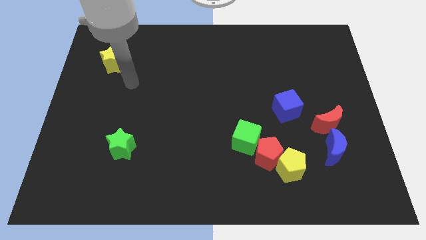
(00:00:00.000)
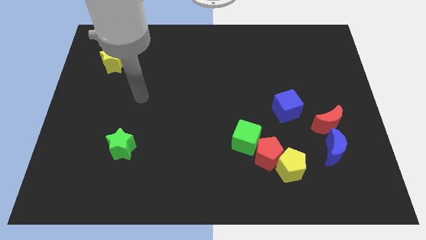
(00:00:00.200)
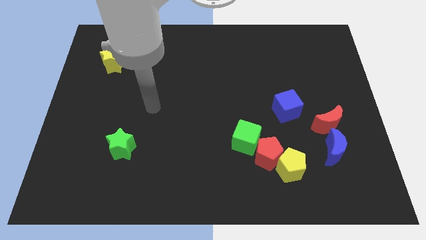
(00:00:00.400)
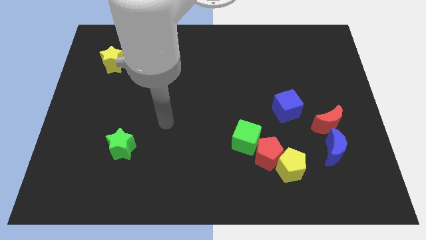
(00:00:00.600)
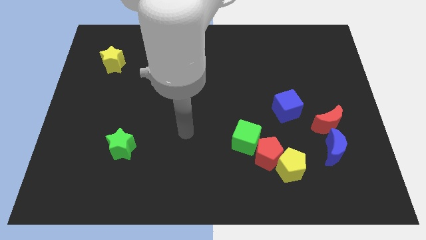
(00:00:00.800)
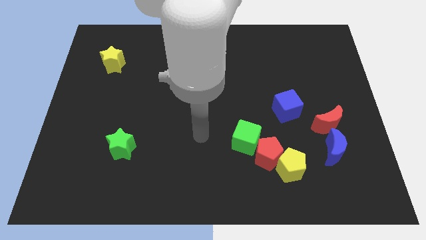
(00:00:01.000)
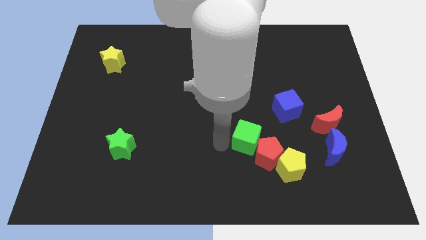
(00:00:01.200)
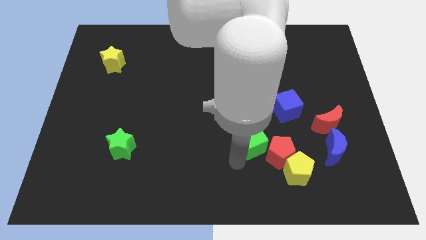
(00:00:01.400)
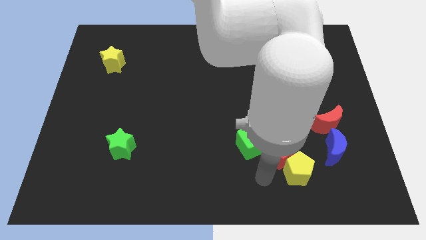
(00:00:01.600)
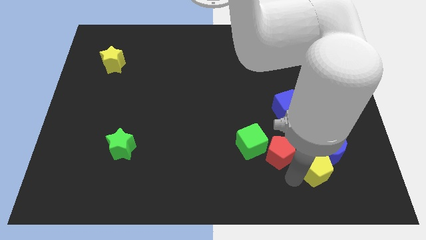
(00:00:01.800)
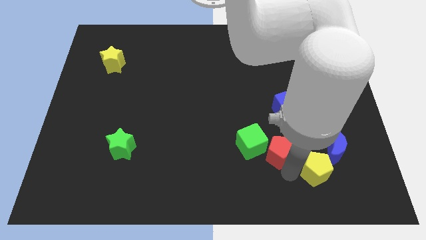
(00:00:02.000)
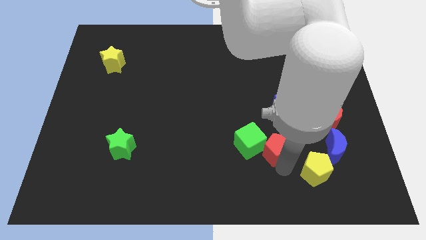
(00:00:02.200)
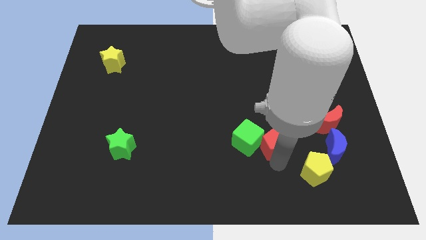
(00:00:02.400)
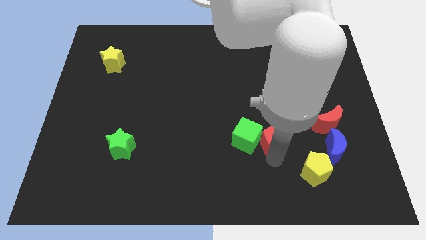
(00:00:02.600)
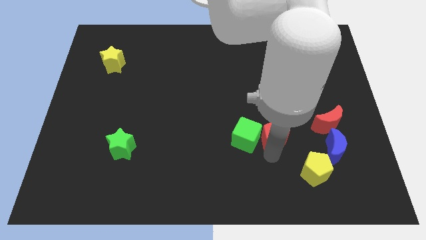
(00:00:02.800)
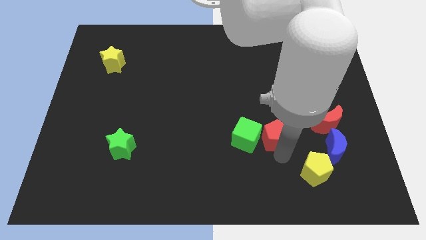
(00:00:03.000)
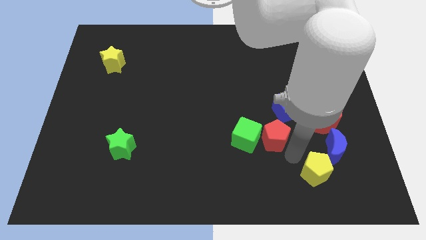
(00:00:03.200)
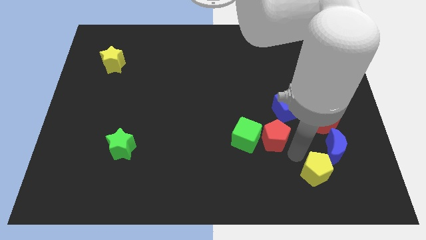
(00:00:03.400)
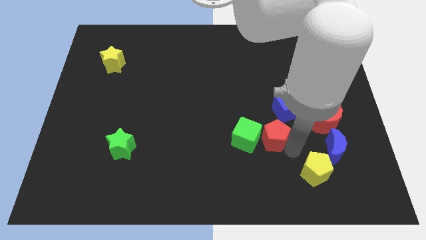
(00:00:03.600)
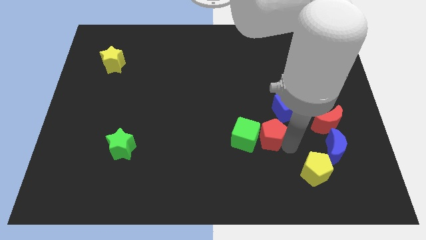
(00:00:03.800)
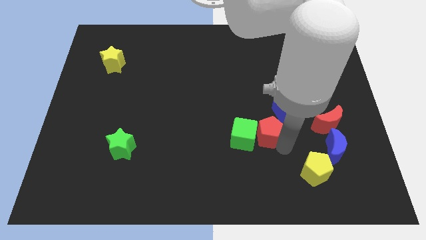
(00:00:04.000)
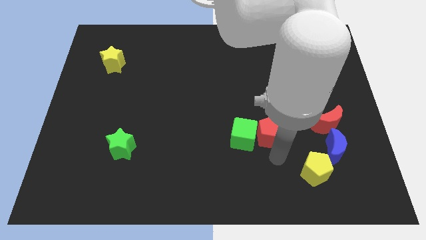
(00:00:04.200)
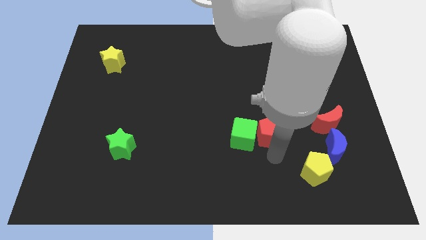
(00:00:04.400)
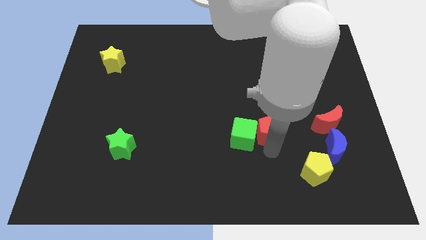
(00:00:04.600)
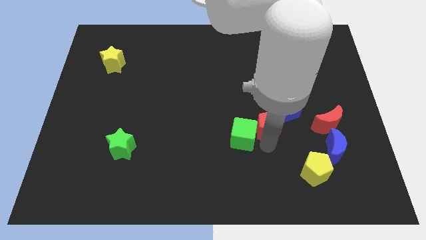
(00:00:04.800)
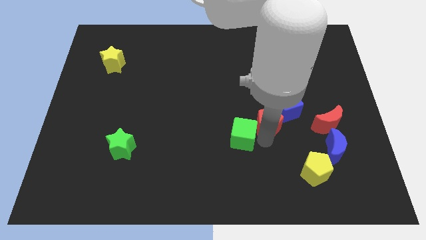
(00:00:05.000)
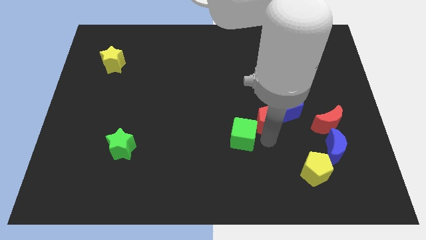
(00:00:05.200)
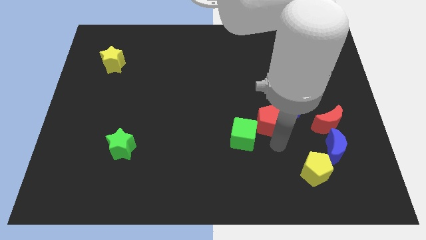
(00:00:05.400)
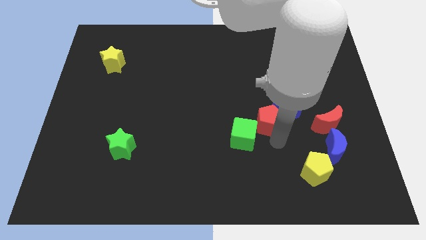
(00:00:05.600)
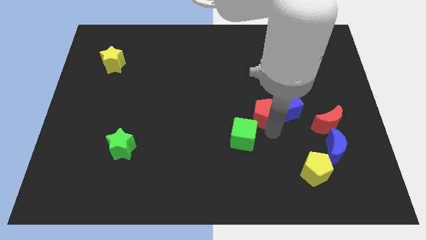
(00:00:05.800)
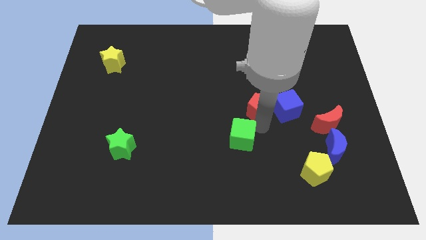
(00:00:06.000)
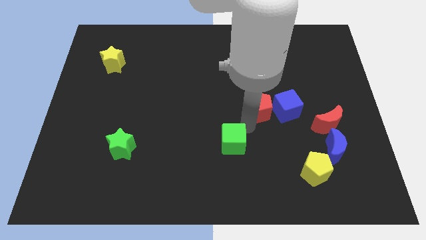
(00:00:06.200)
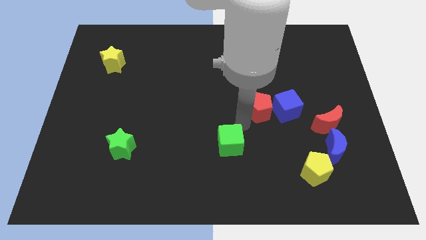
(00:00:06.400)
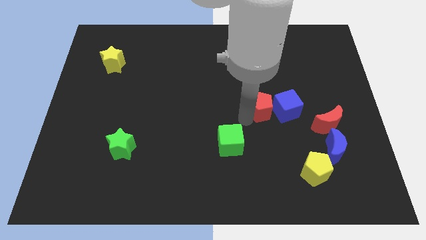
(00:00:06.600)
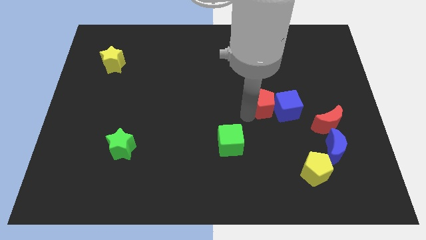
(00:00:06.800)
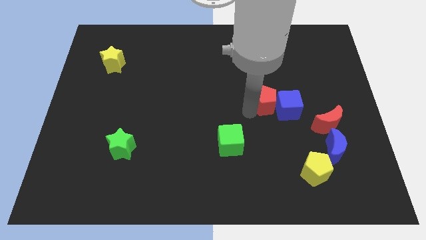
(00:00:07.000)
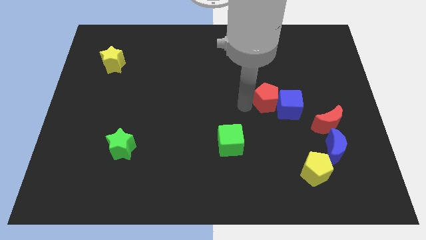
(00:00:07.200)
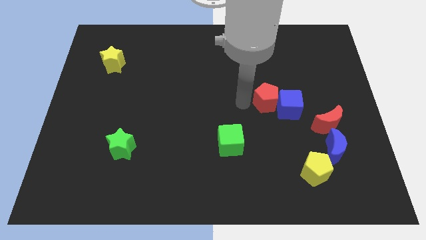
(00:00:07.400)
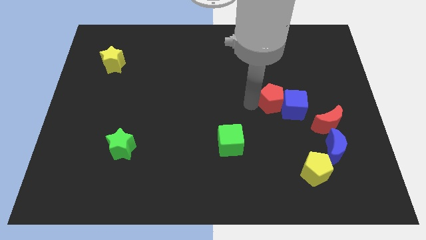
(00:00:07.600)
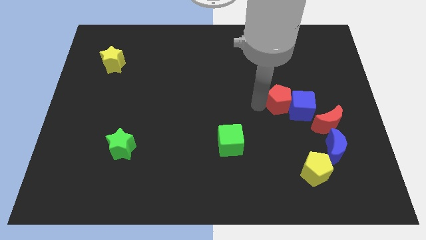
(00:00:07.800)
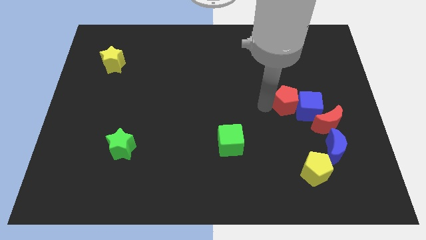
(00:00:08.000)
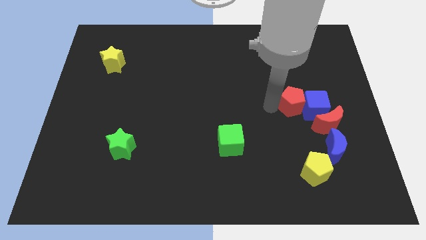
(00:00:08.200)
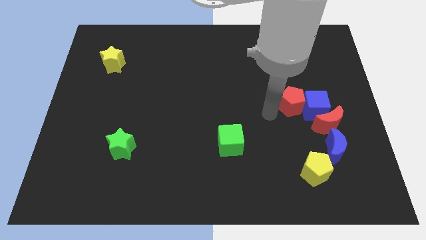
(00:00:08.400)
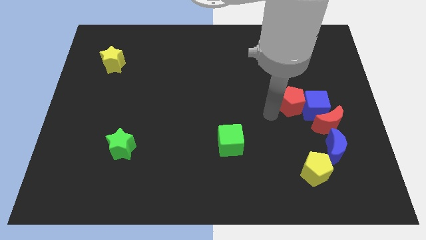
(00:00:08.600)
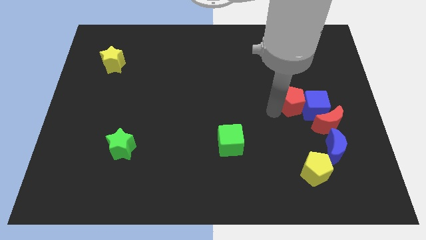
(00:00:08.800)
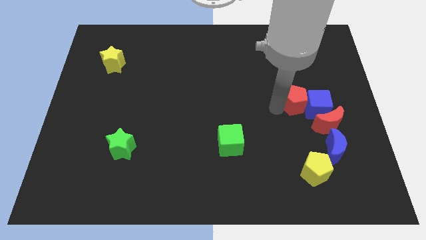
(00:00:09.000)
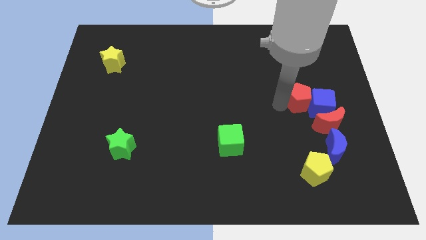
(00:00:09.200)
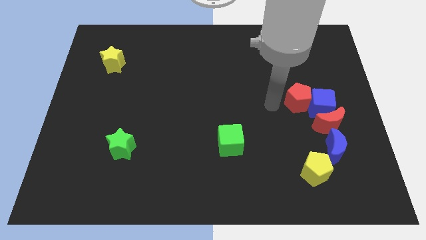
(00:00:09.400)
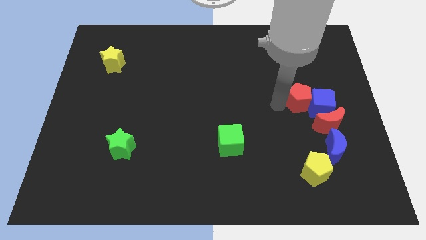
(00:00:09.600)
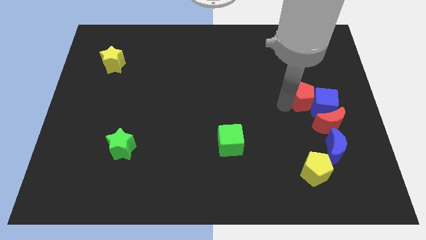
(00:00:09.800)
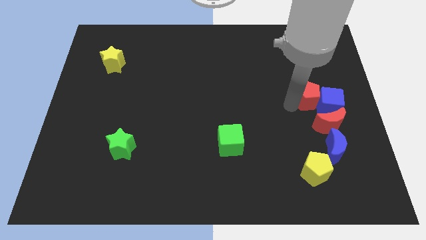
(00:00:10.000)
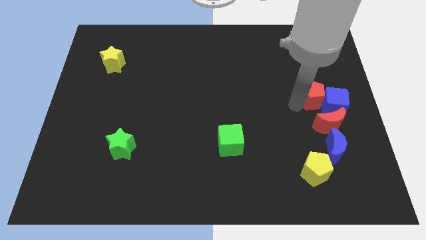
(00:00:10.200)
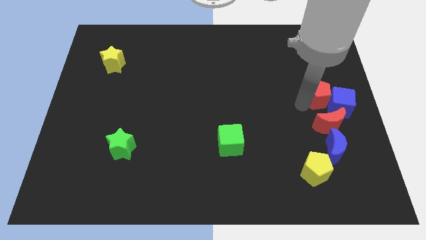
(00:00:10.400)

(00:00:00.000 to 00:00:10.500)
move the red pentagon to the center right

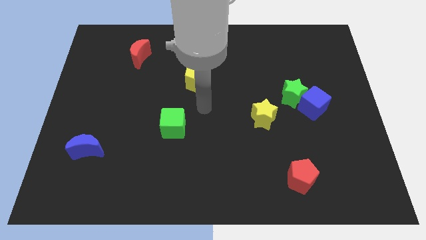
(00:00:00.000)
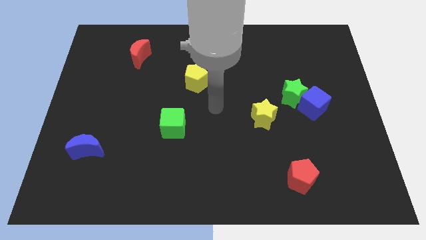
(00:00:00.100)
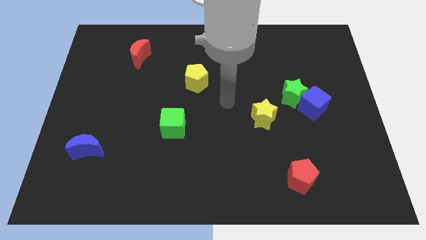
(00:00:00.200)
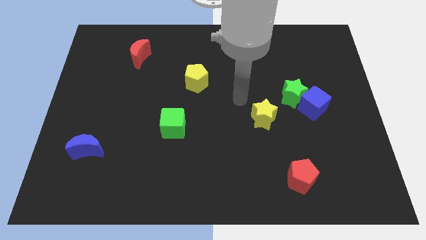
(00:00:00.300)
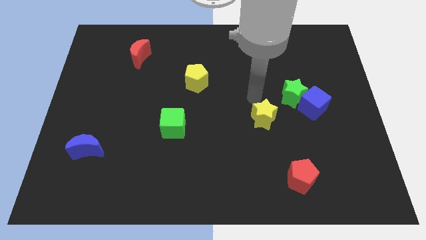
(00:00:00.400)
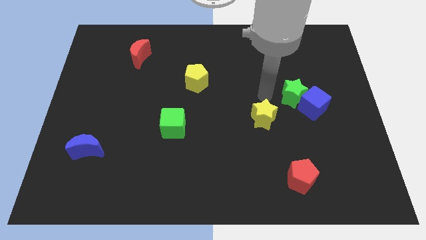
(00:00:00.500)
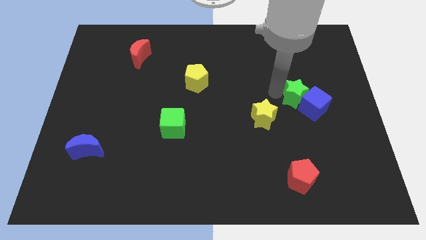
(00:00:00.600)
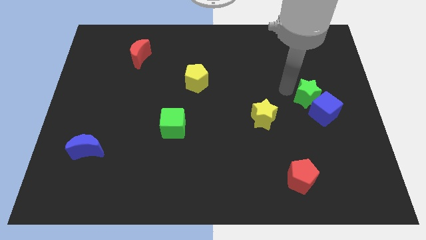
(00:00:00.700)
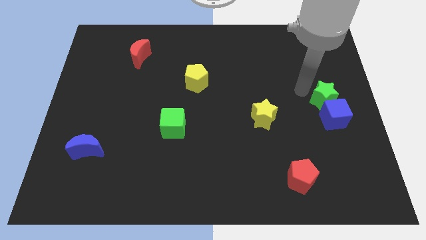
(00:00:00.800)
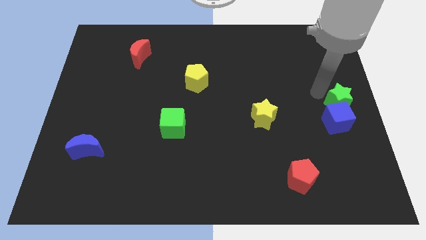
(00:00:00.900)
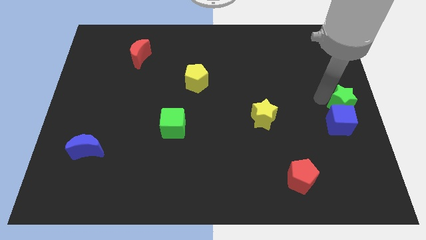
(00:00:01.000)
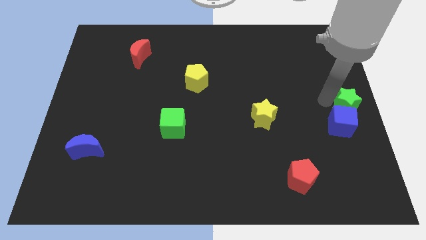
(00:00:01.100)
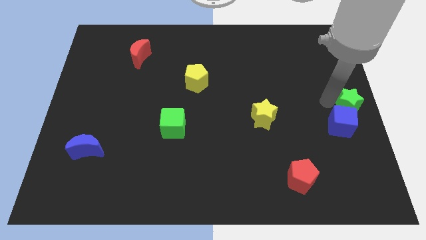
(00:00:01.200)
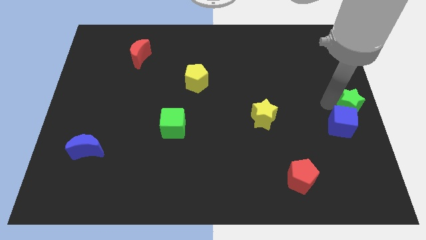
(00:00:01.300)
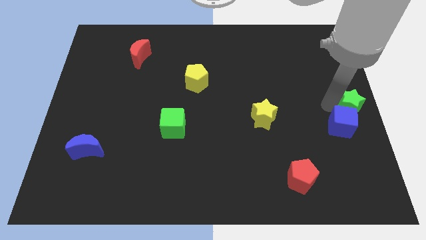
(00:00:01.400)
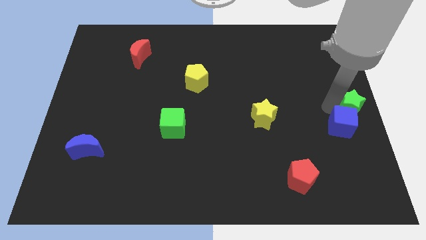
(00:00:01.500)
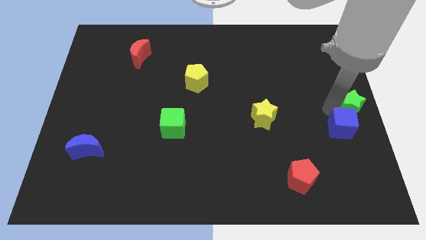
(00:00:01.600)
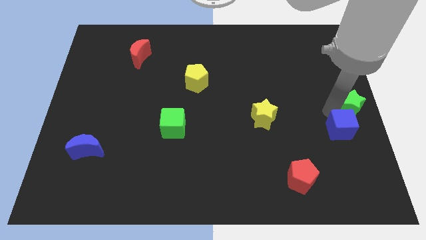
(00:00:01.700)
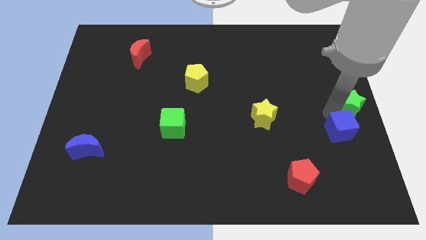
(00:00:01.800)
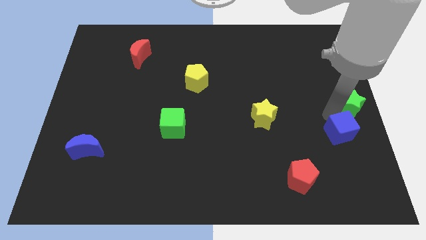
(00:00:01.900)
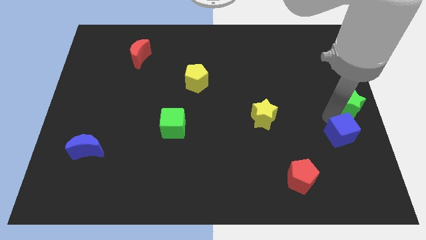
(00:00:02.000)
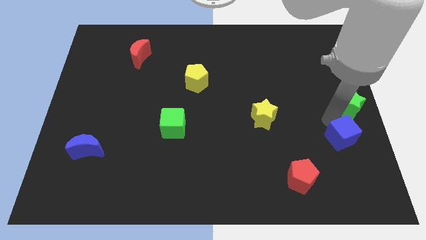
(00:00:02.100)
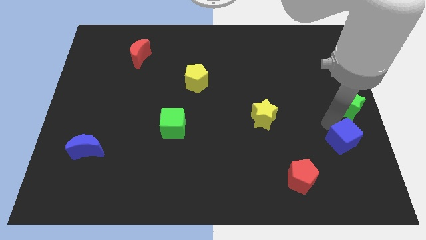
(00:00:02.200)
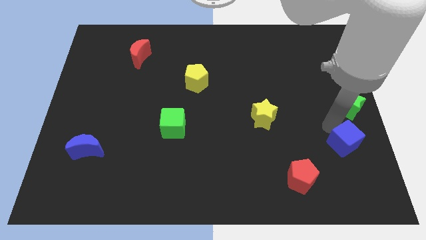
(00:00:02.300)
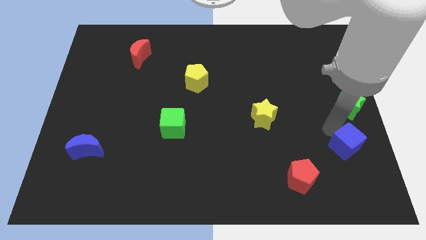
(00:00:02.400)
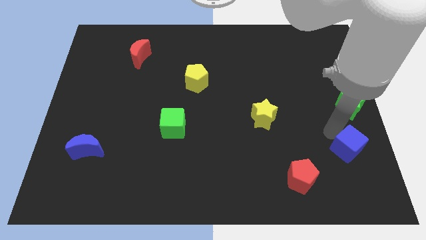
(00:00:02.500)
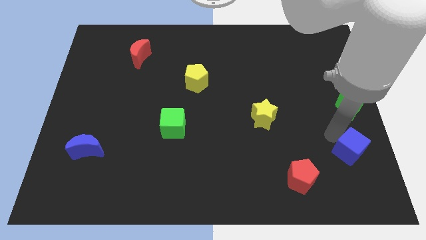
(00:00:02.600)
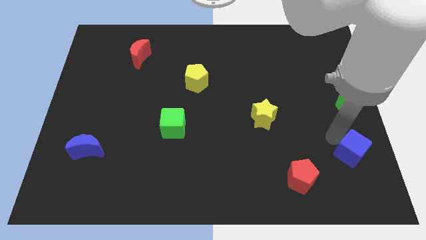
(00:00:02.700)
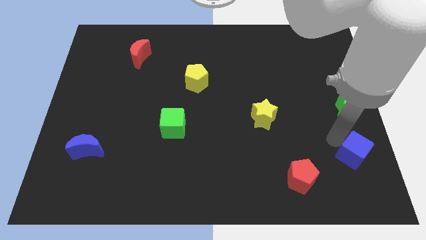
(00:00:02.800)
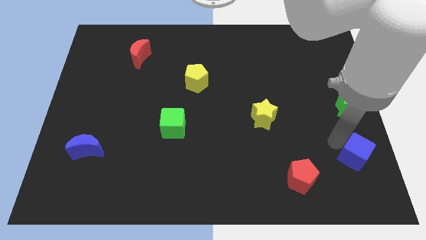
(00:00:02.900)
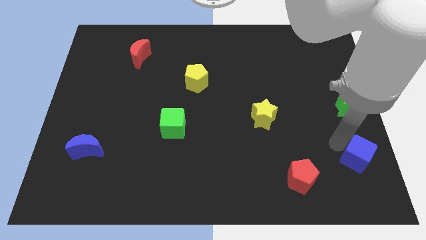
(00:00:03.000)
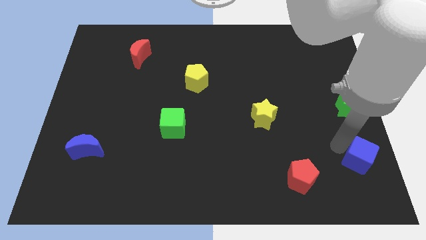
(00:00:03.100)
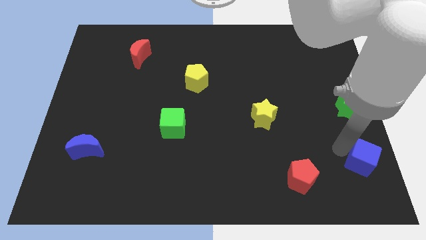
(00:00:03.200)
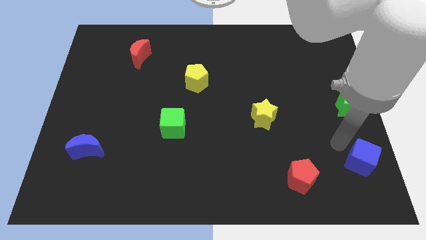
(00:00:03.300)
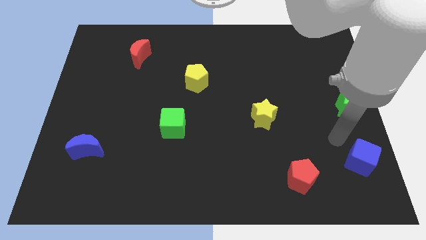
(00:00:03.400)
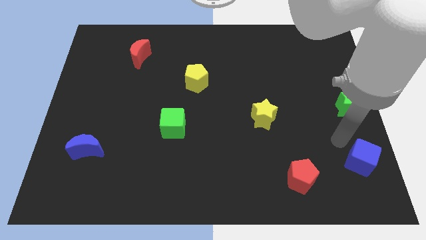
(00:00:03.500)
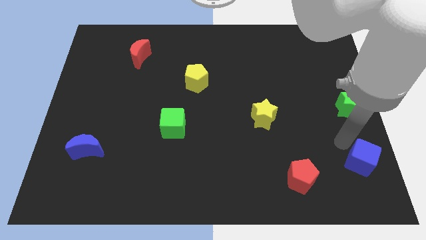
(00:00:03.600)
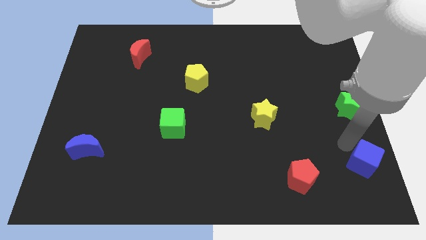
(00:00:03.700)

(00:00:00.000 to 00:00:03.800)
slide the blue cube to the bottom right
